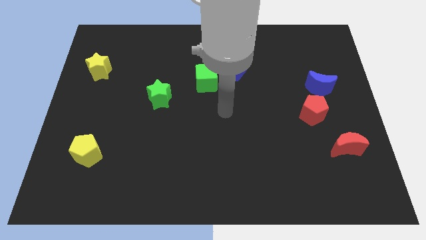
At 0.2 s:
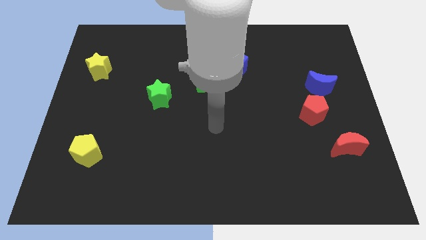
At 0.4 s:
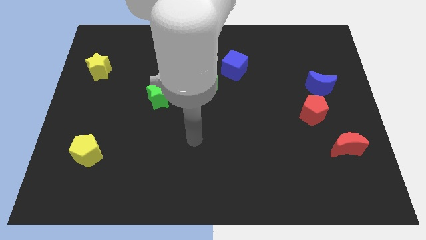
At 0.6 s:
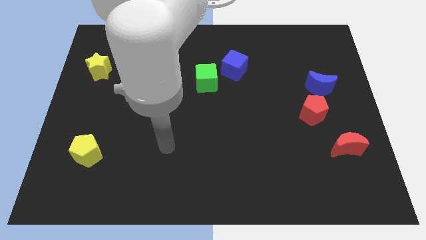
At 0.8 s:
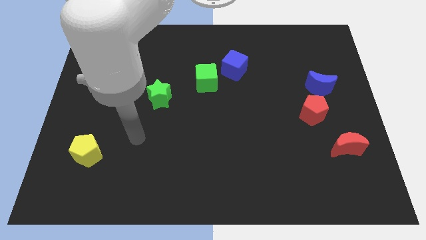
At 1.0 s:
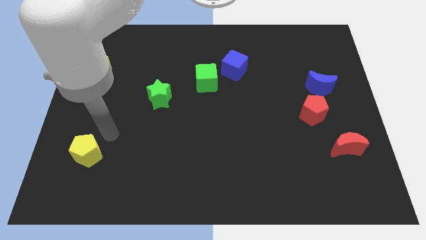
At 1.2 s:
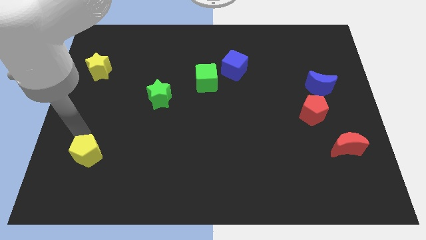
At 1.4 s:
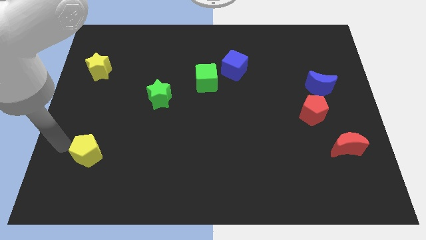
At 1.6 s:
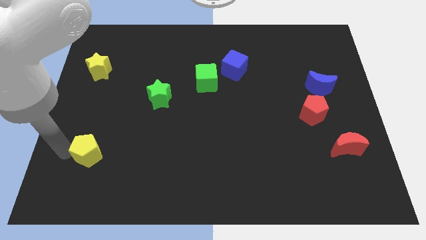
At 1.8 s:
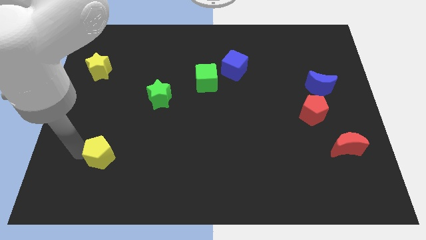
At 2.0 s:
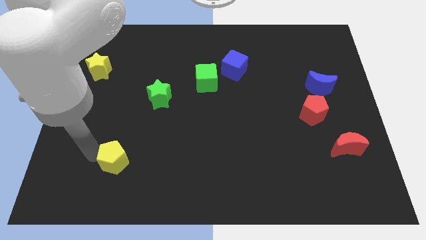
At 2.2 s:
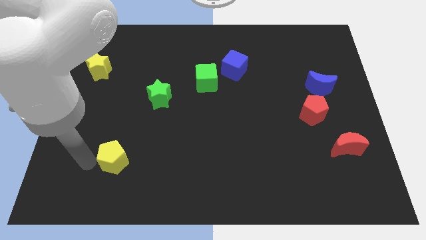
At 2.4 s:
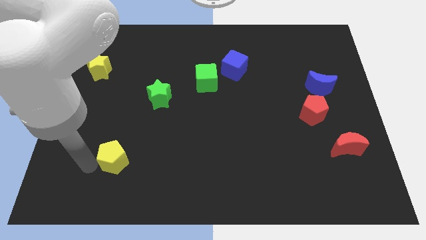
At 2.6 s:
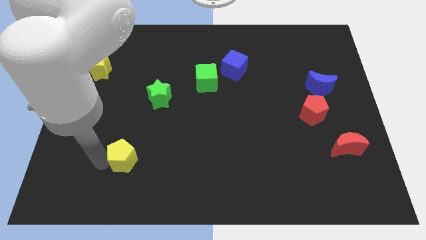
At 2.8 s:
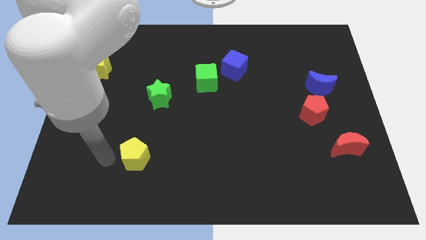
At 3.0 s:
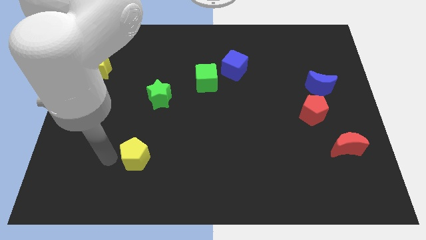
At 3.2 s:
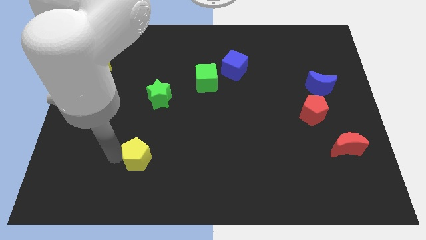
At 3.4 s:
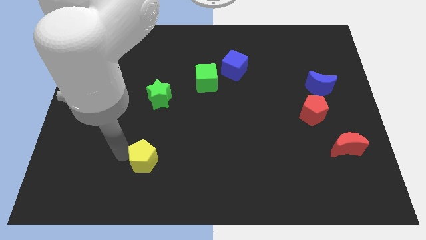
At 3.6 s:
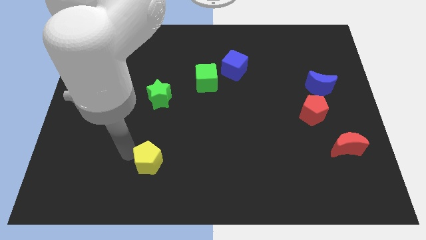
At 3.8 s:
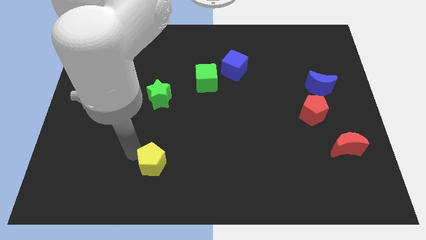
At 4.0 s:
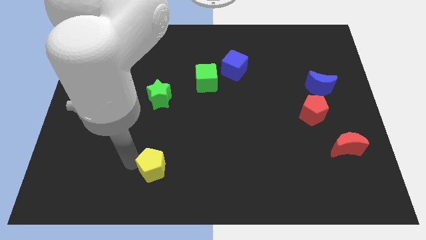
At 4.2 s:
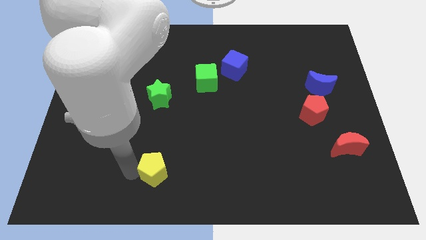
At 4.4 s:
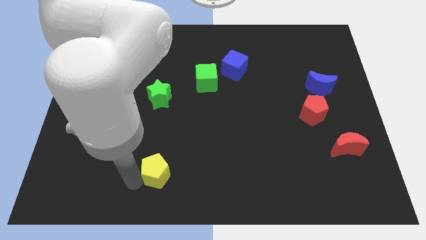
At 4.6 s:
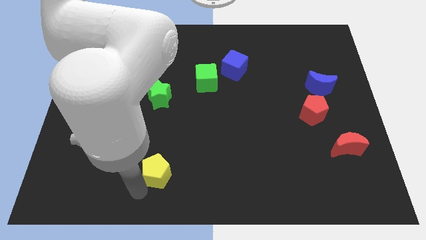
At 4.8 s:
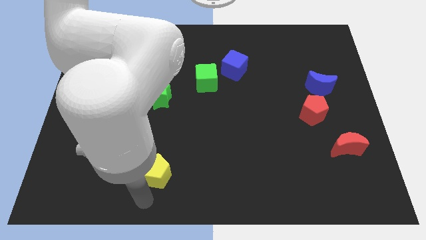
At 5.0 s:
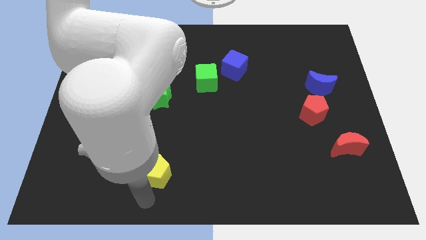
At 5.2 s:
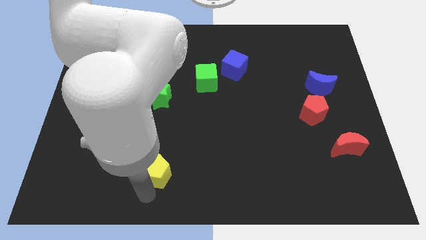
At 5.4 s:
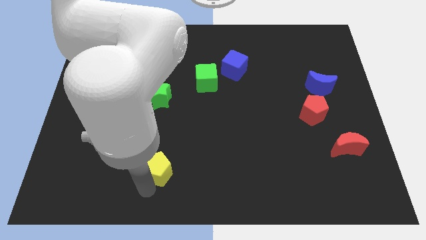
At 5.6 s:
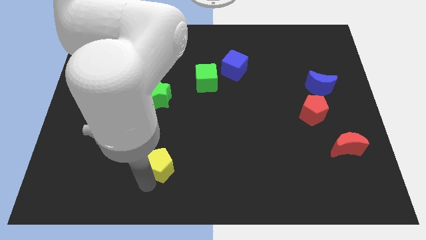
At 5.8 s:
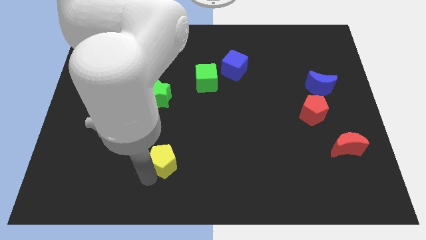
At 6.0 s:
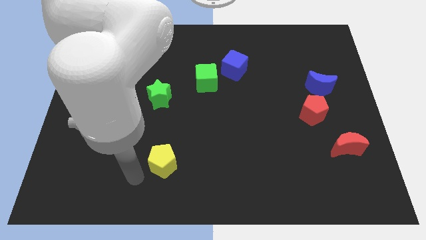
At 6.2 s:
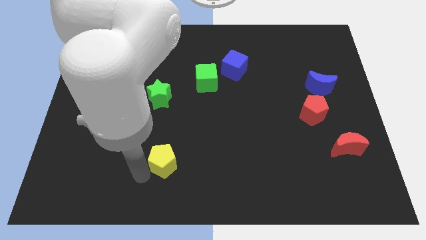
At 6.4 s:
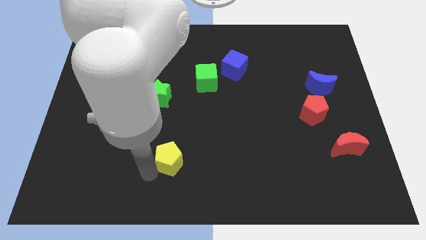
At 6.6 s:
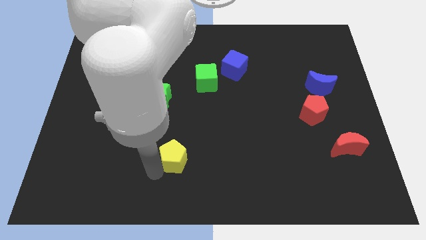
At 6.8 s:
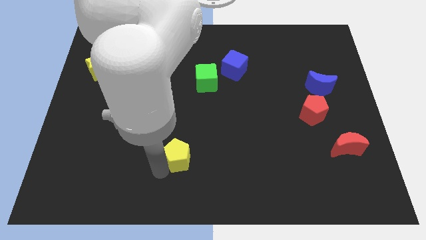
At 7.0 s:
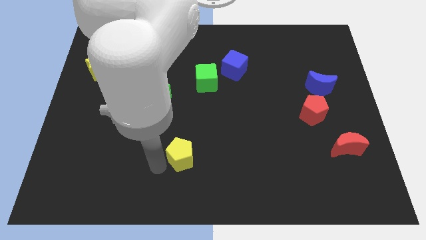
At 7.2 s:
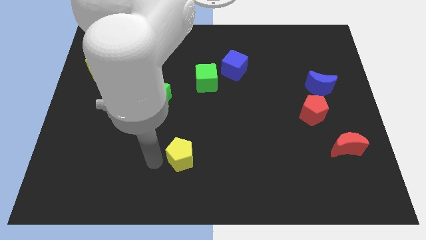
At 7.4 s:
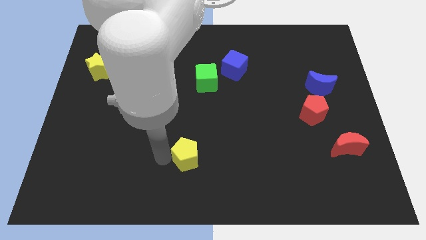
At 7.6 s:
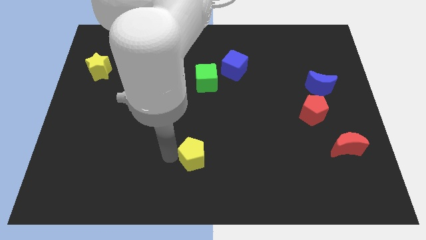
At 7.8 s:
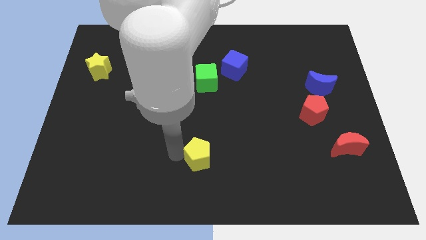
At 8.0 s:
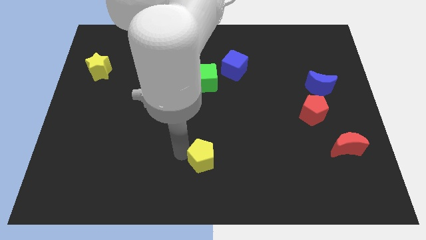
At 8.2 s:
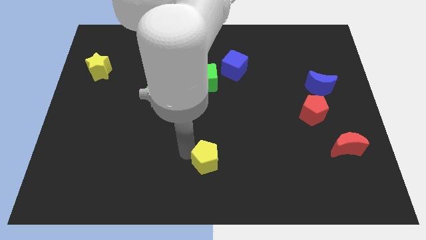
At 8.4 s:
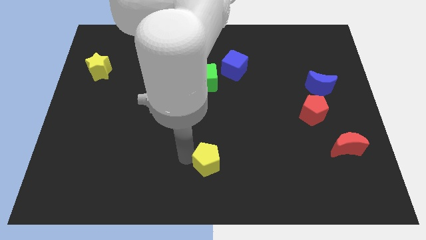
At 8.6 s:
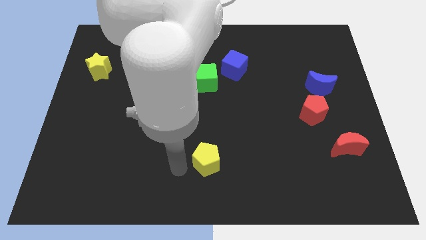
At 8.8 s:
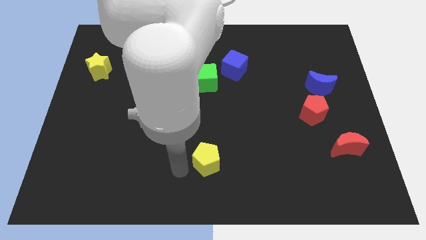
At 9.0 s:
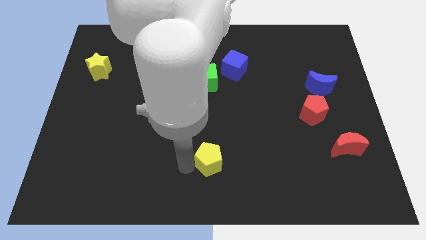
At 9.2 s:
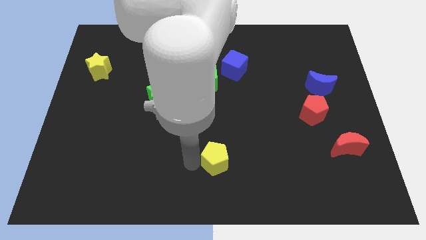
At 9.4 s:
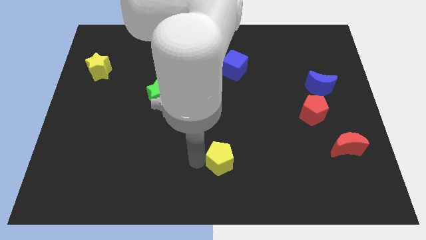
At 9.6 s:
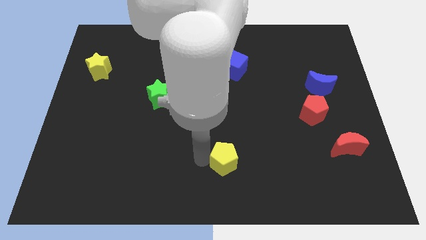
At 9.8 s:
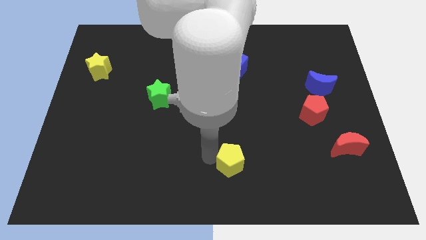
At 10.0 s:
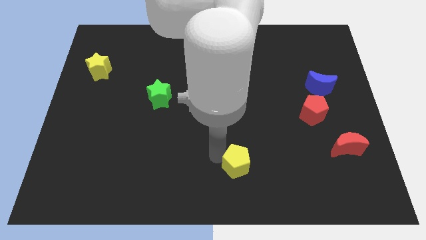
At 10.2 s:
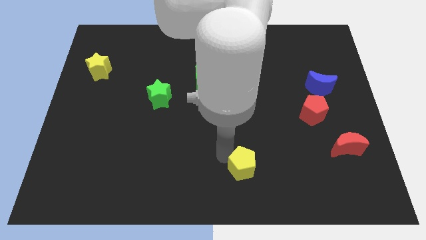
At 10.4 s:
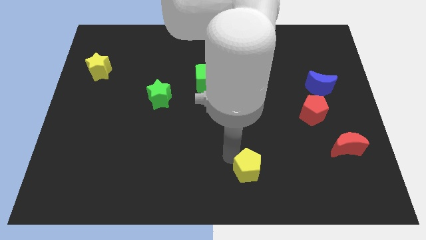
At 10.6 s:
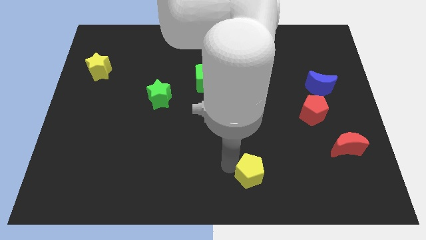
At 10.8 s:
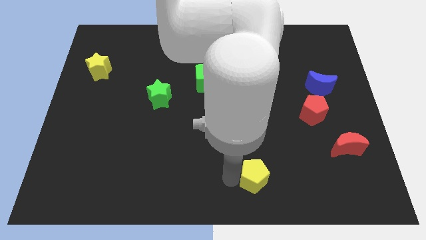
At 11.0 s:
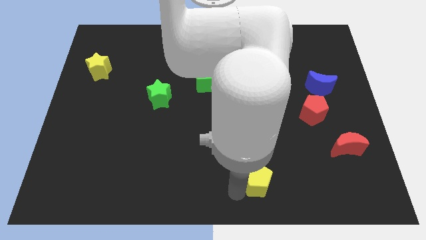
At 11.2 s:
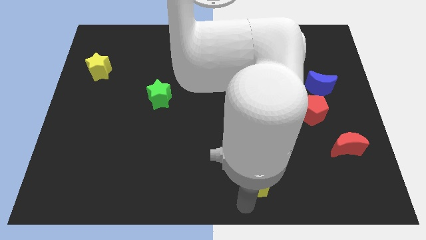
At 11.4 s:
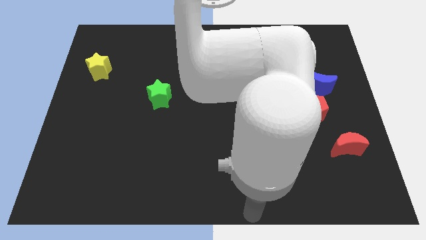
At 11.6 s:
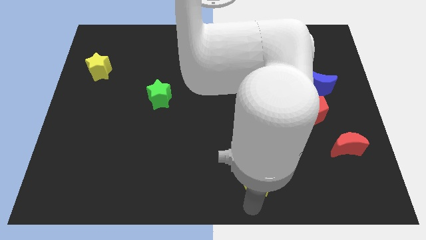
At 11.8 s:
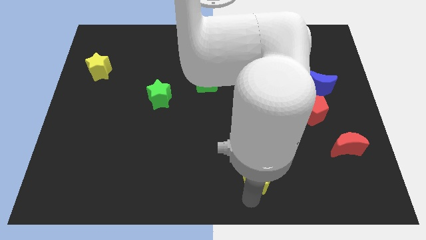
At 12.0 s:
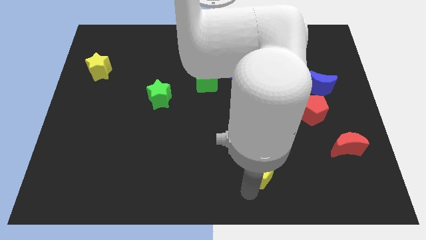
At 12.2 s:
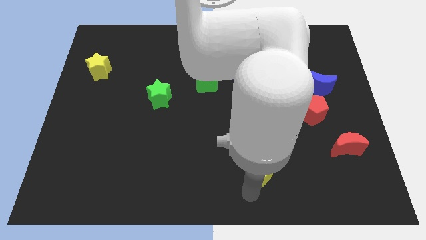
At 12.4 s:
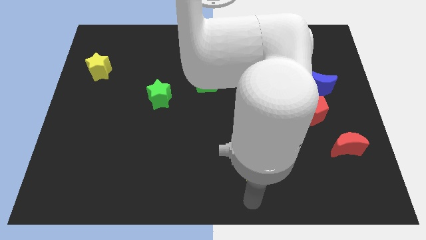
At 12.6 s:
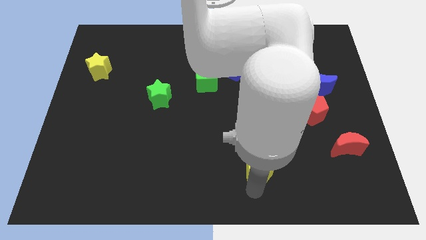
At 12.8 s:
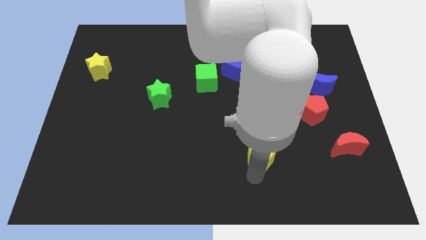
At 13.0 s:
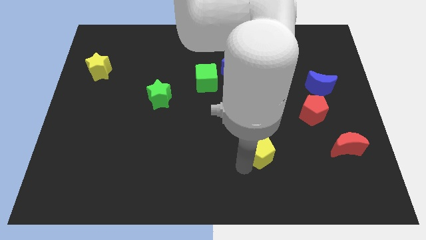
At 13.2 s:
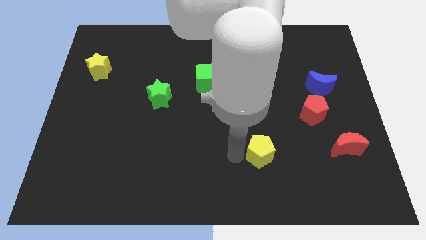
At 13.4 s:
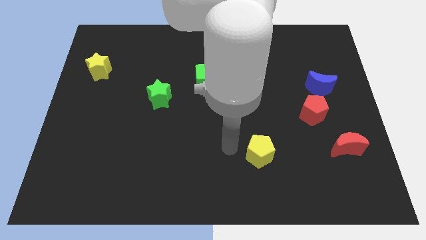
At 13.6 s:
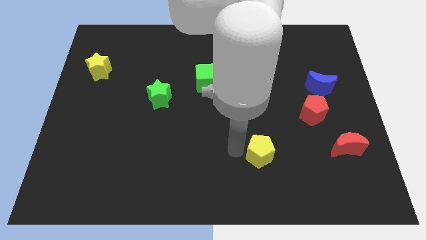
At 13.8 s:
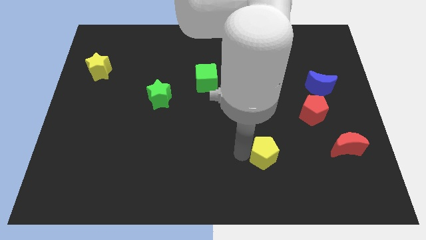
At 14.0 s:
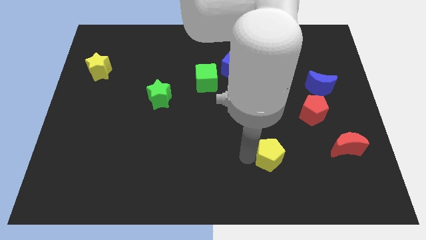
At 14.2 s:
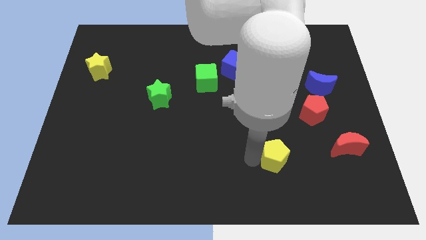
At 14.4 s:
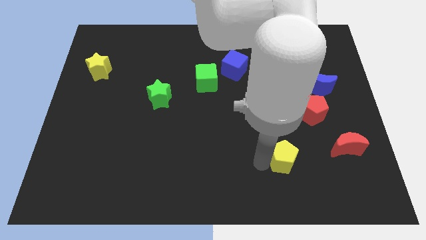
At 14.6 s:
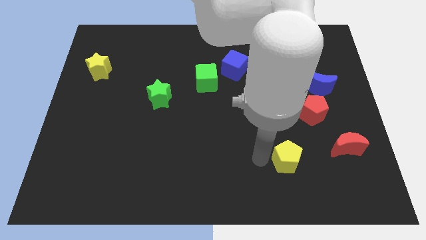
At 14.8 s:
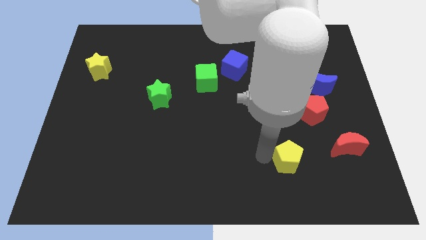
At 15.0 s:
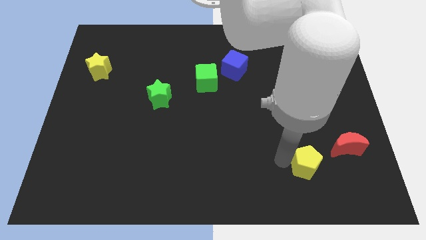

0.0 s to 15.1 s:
put the yellow pentagon to the bottom left of the red moon
